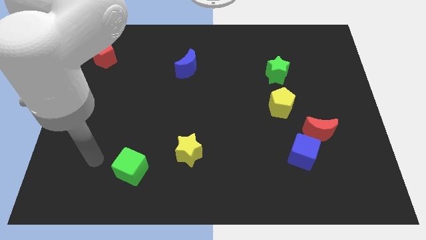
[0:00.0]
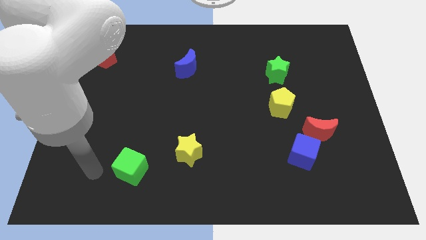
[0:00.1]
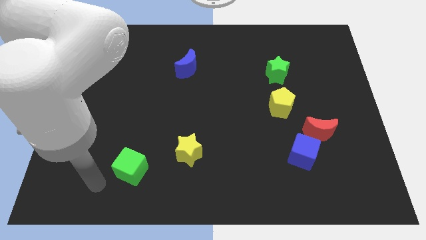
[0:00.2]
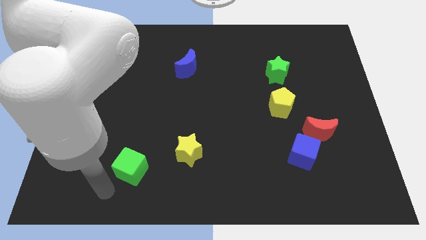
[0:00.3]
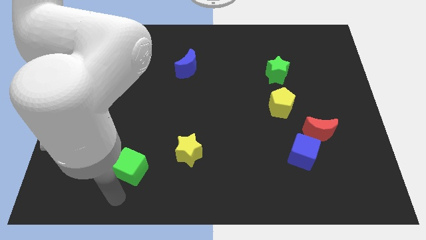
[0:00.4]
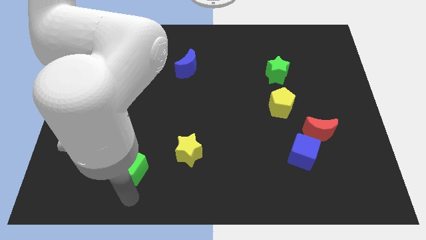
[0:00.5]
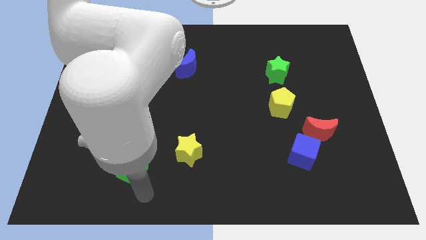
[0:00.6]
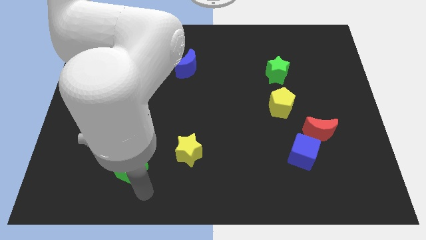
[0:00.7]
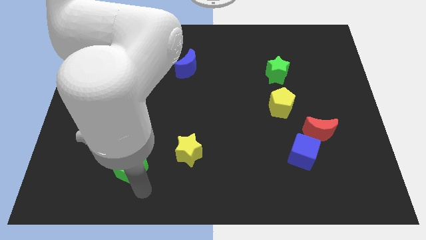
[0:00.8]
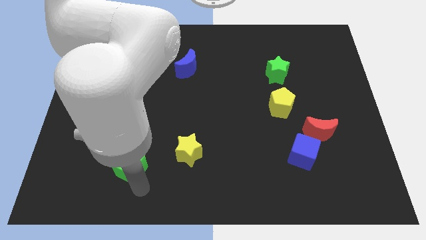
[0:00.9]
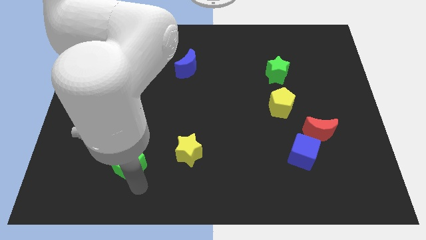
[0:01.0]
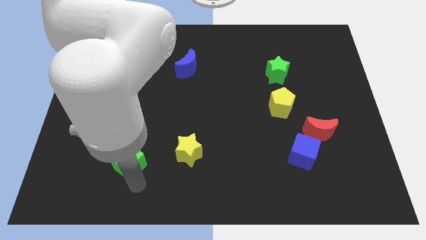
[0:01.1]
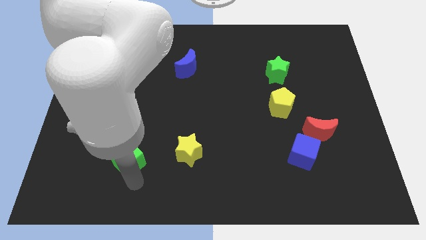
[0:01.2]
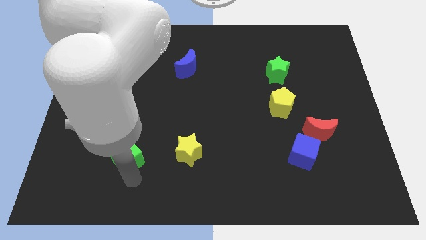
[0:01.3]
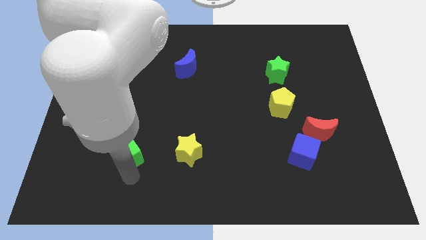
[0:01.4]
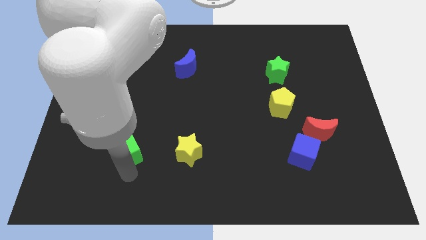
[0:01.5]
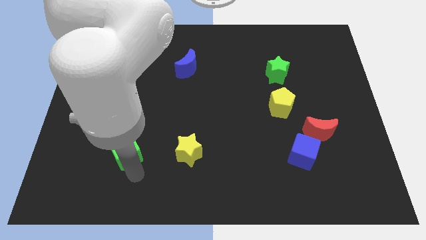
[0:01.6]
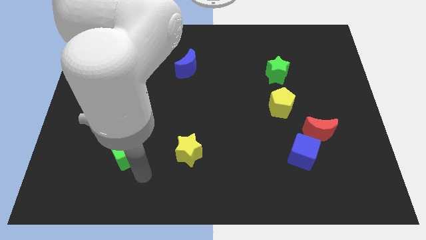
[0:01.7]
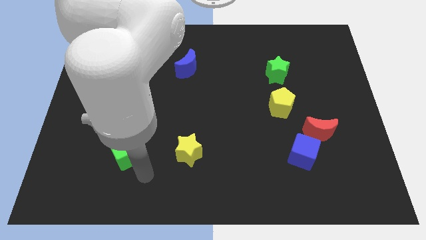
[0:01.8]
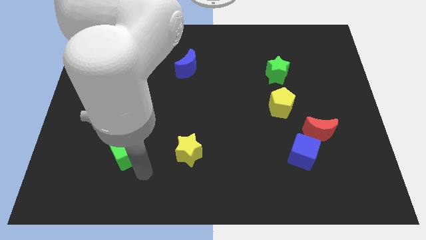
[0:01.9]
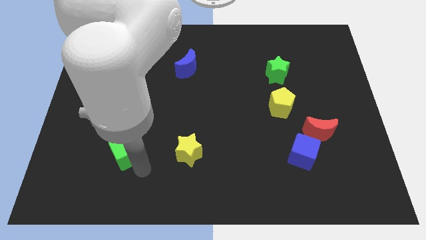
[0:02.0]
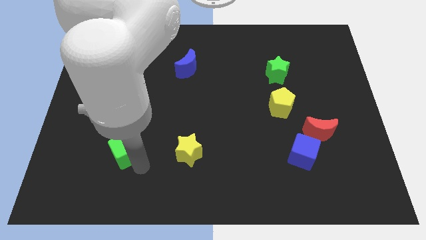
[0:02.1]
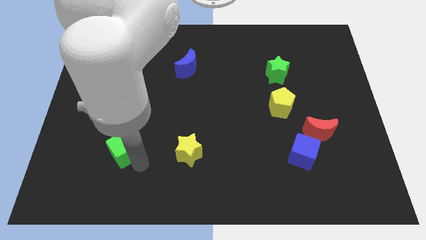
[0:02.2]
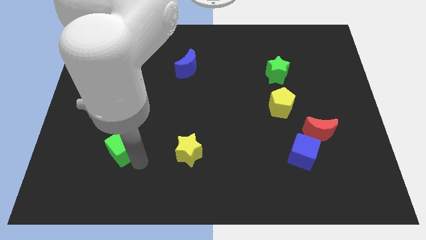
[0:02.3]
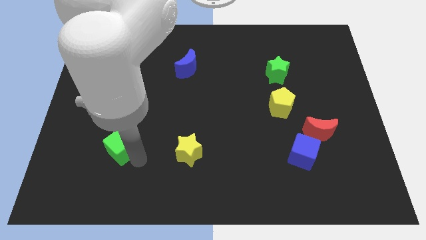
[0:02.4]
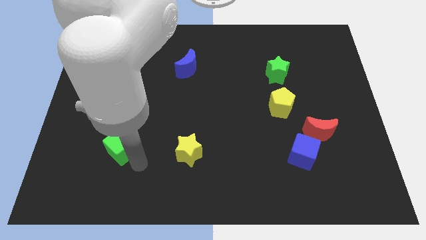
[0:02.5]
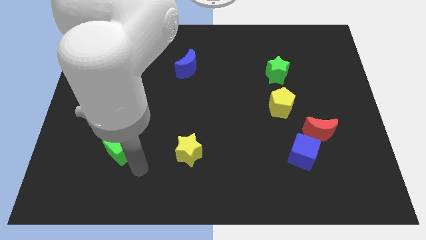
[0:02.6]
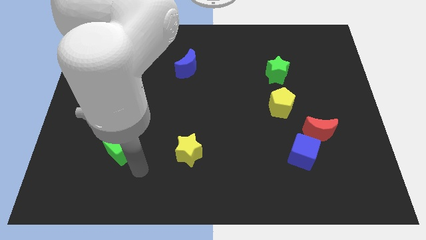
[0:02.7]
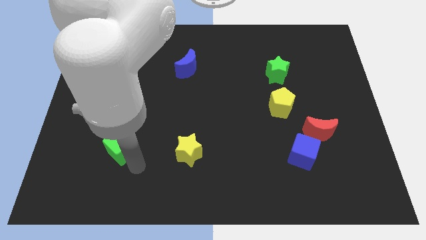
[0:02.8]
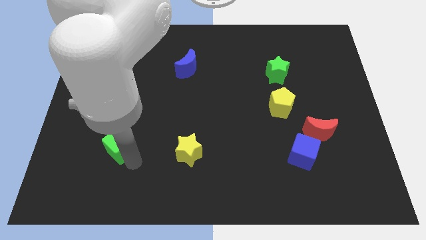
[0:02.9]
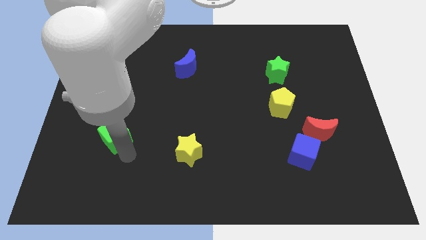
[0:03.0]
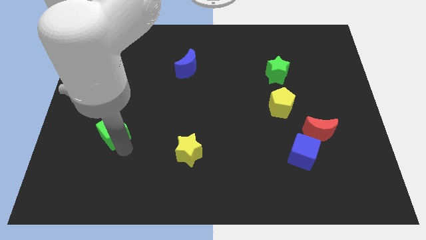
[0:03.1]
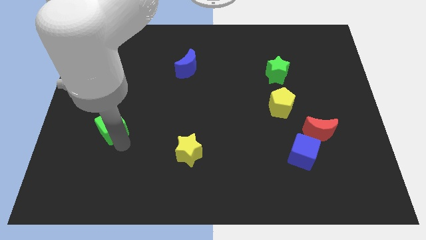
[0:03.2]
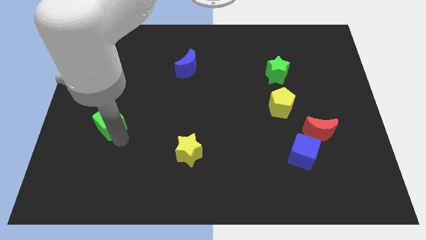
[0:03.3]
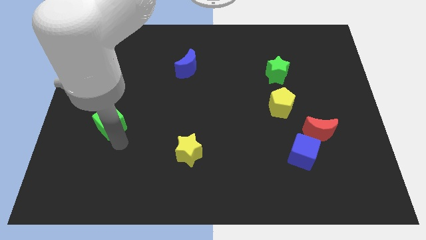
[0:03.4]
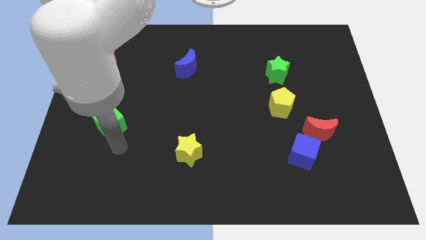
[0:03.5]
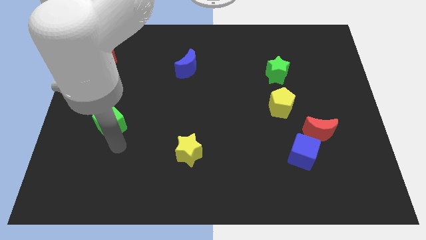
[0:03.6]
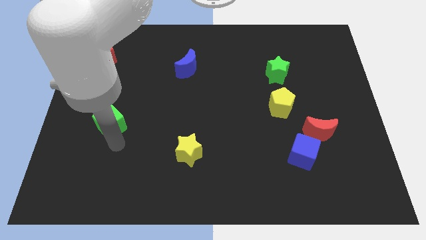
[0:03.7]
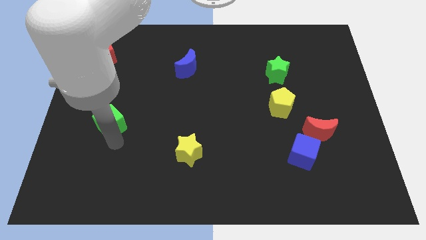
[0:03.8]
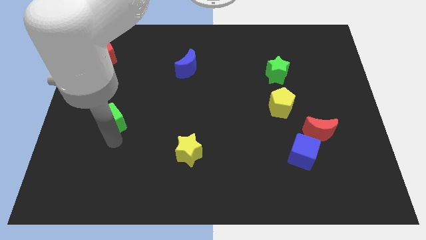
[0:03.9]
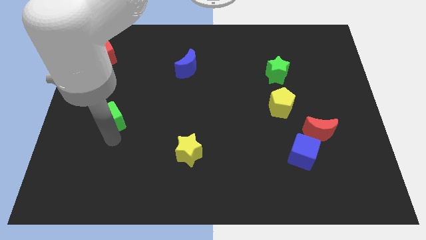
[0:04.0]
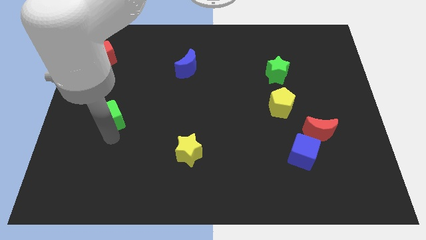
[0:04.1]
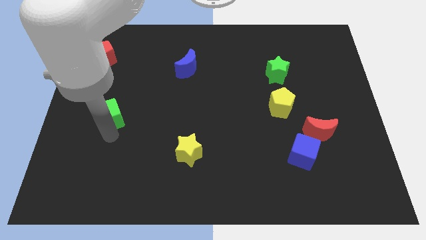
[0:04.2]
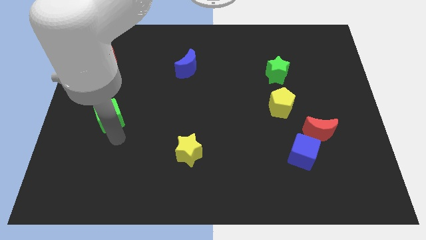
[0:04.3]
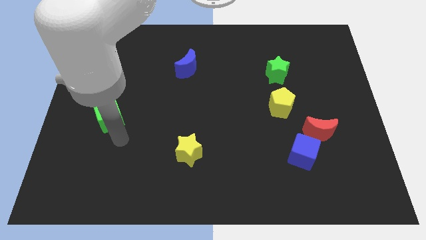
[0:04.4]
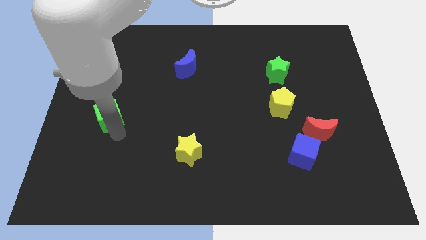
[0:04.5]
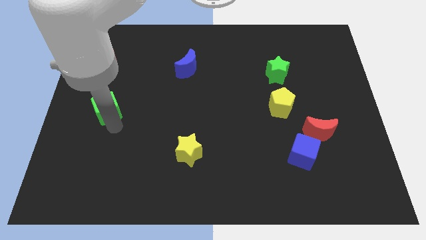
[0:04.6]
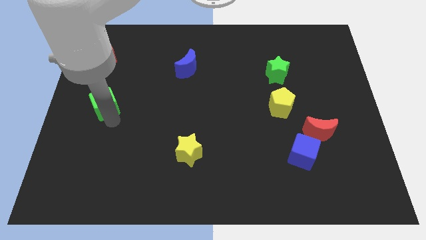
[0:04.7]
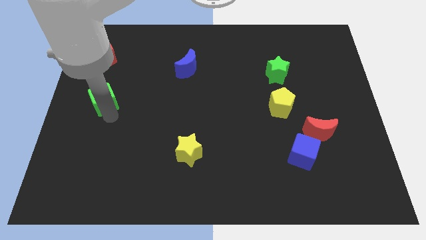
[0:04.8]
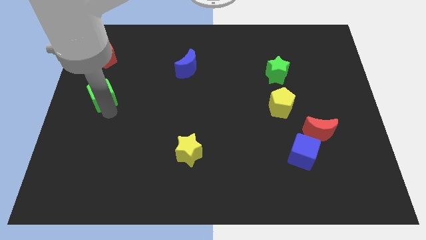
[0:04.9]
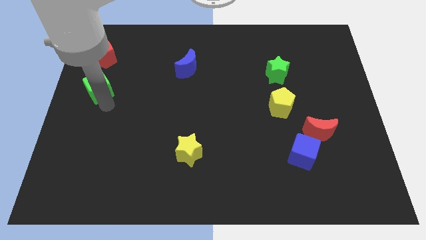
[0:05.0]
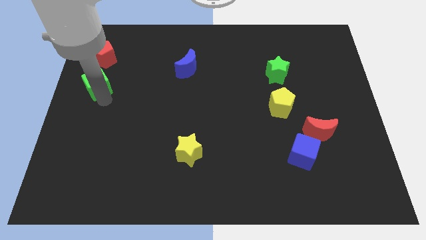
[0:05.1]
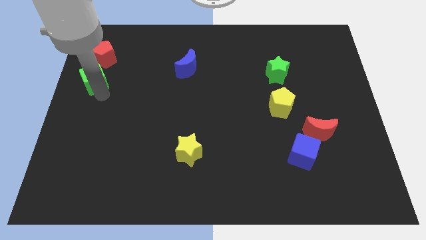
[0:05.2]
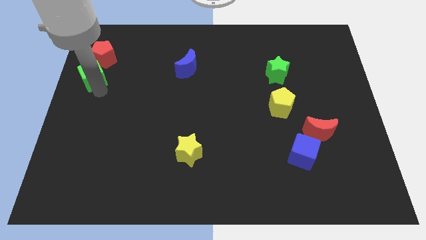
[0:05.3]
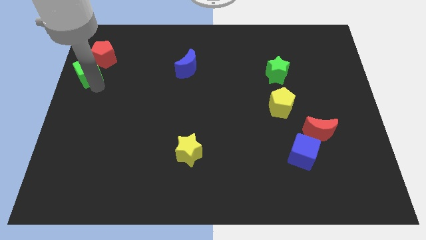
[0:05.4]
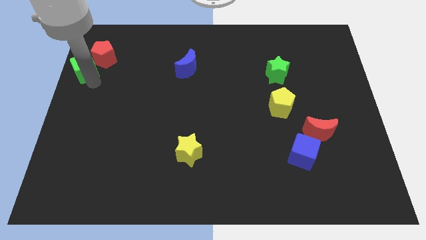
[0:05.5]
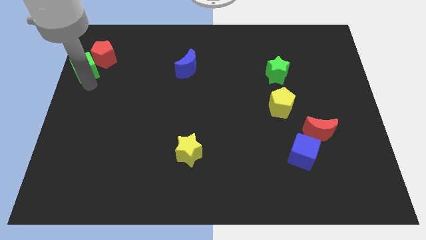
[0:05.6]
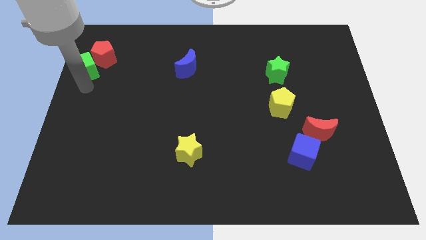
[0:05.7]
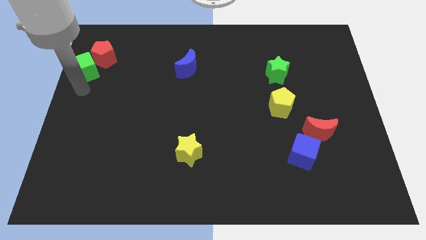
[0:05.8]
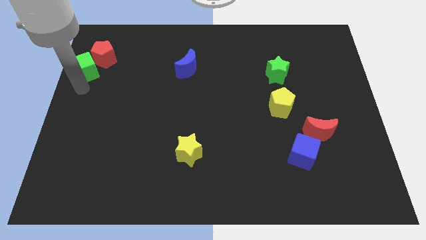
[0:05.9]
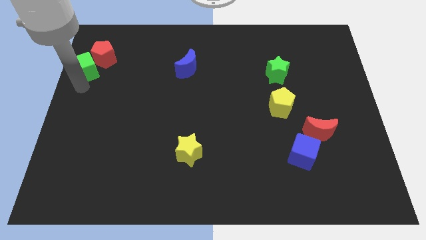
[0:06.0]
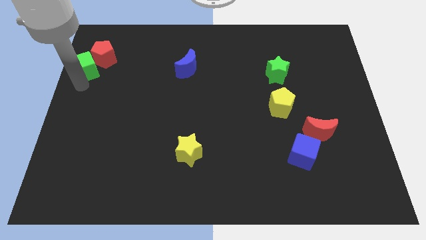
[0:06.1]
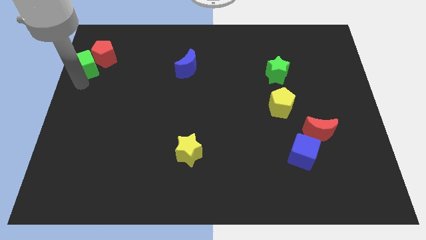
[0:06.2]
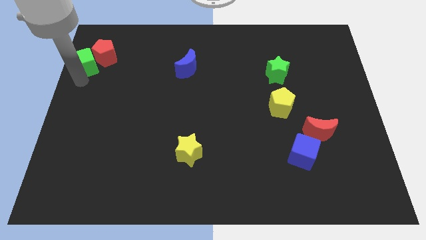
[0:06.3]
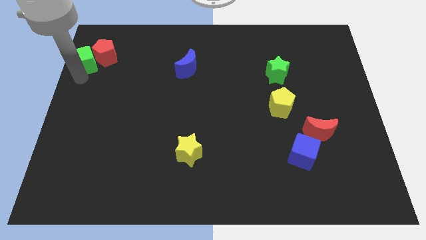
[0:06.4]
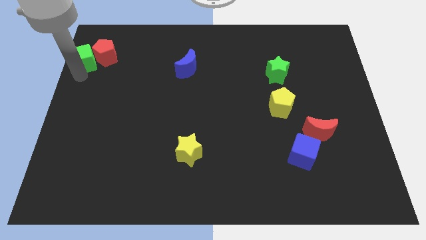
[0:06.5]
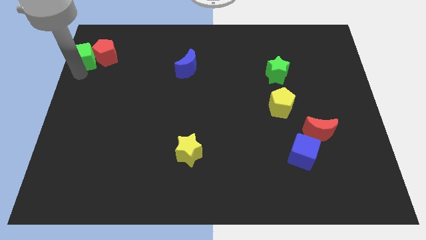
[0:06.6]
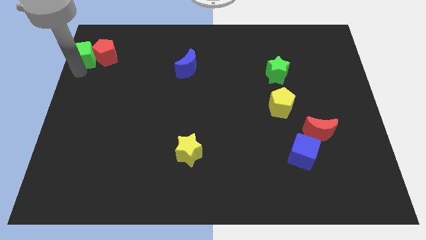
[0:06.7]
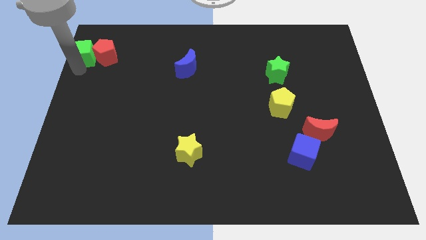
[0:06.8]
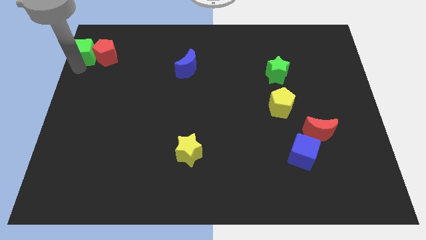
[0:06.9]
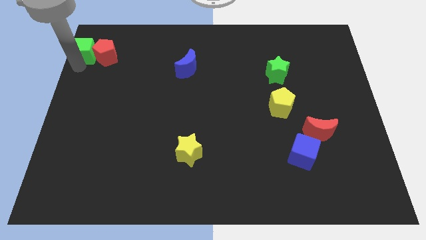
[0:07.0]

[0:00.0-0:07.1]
put the green cube to the top left corner
